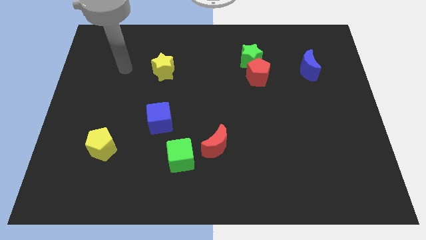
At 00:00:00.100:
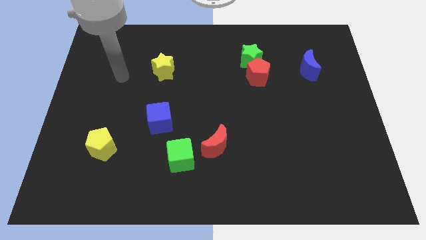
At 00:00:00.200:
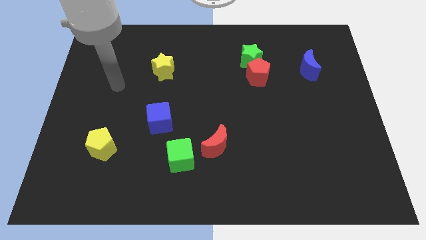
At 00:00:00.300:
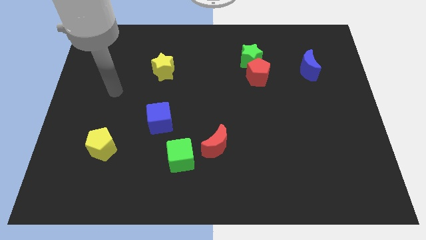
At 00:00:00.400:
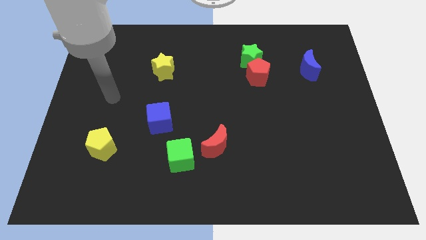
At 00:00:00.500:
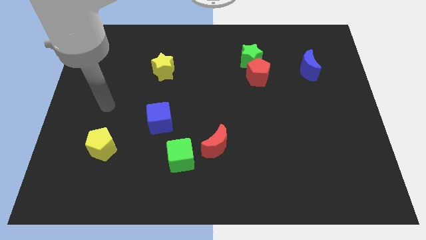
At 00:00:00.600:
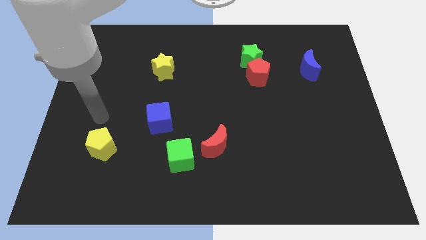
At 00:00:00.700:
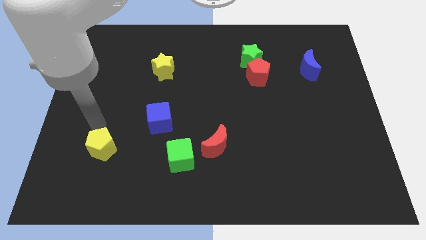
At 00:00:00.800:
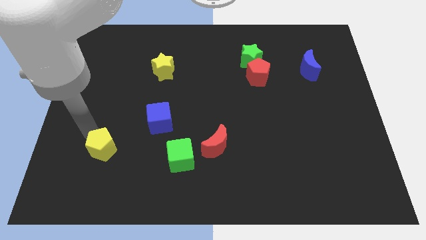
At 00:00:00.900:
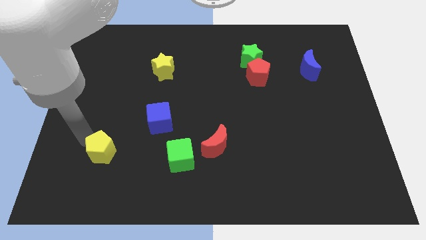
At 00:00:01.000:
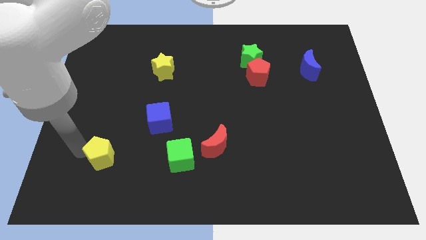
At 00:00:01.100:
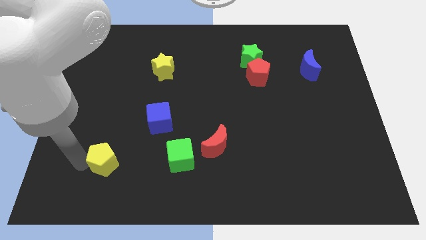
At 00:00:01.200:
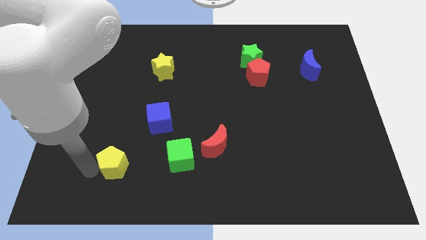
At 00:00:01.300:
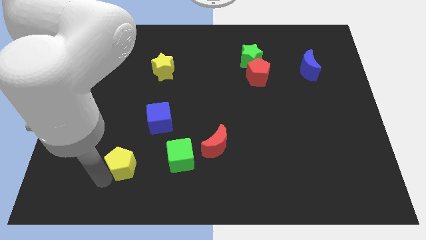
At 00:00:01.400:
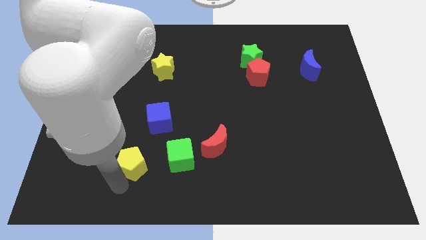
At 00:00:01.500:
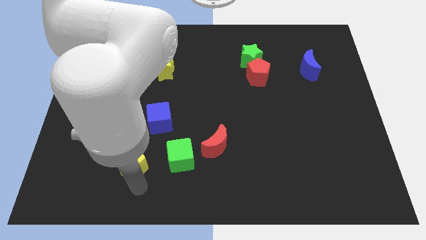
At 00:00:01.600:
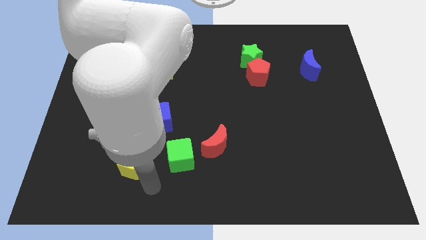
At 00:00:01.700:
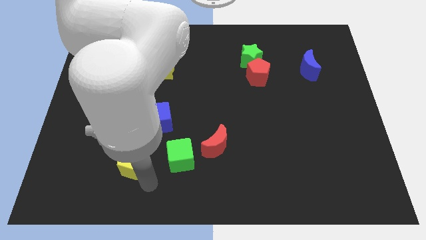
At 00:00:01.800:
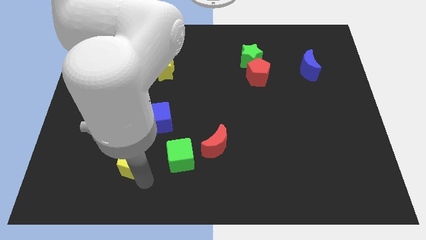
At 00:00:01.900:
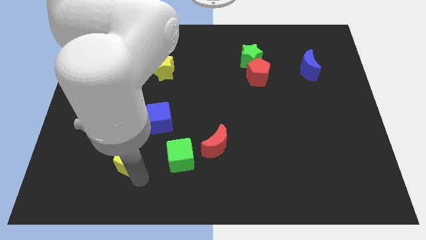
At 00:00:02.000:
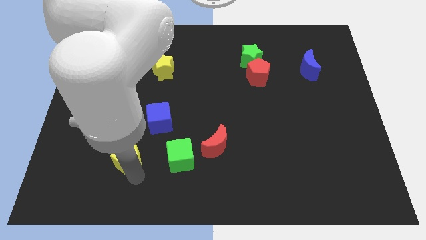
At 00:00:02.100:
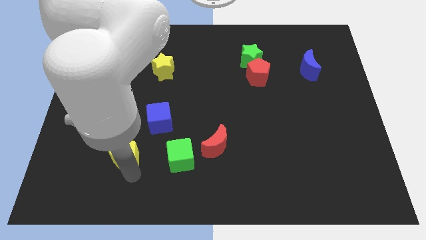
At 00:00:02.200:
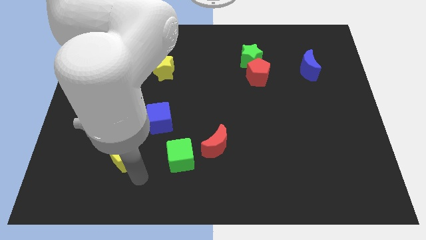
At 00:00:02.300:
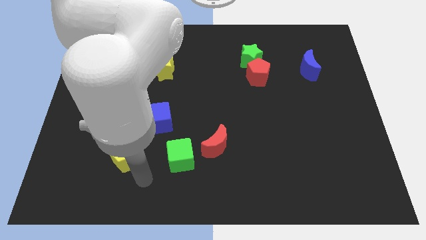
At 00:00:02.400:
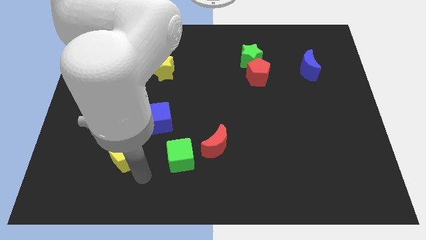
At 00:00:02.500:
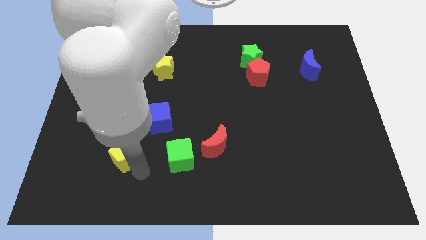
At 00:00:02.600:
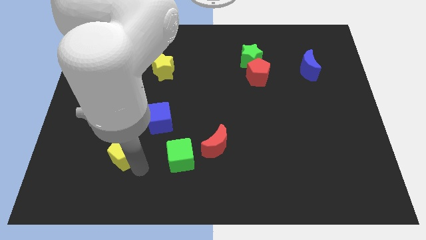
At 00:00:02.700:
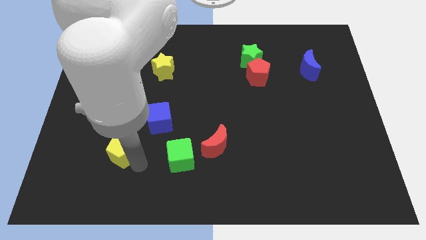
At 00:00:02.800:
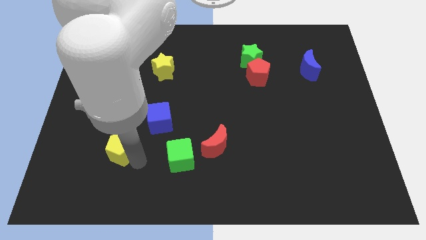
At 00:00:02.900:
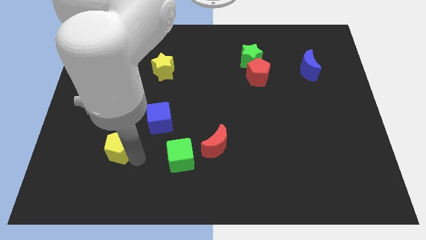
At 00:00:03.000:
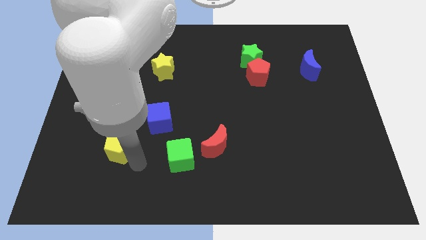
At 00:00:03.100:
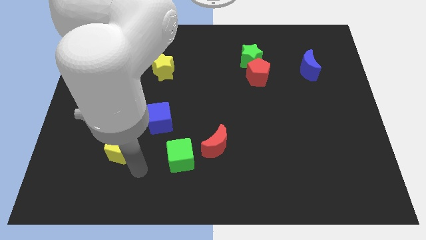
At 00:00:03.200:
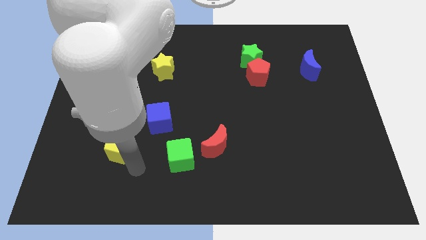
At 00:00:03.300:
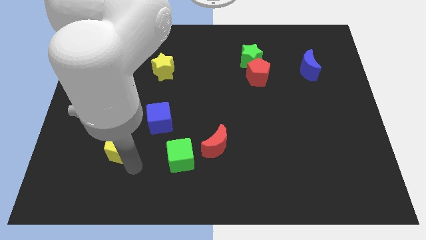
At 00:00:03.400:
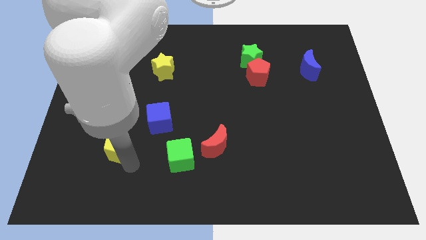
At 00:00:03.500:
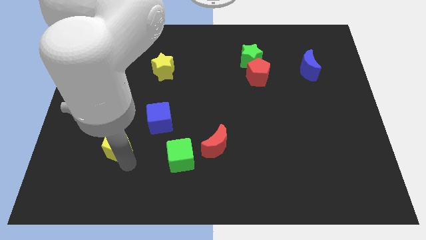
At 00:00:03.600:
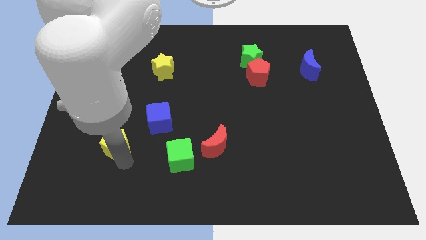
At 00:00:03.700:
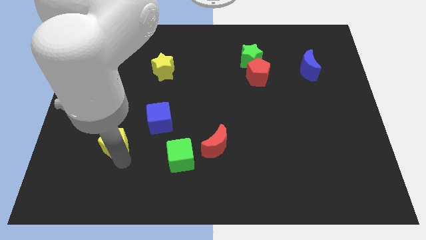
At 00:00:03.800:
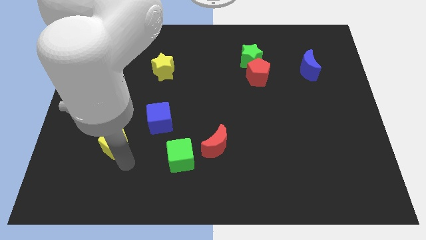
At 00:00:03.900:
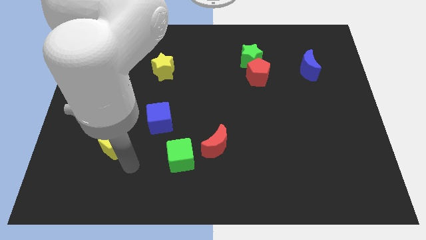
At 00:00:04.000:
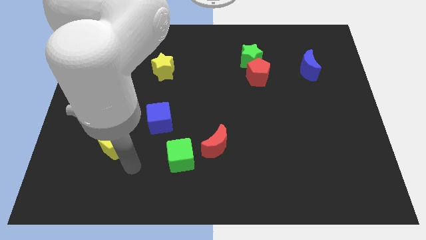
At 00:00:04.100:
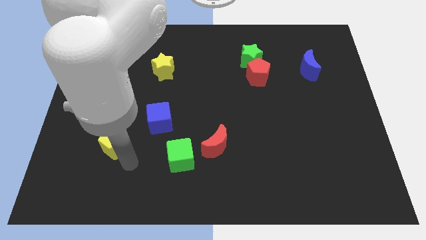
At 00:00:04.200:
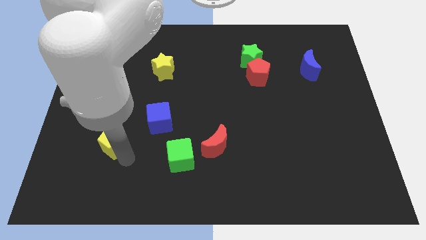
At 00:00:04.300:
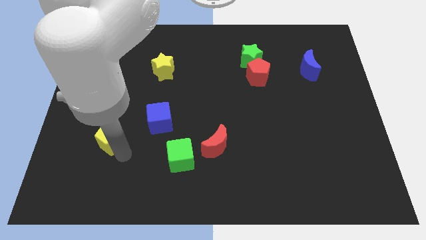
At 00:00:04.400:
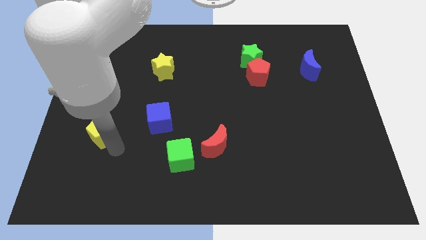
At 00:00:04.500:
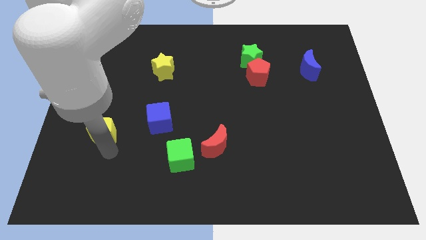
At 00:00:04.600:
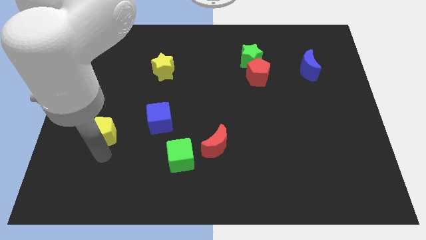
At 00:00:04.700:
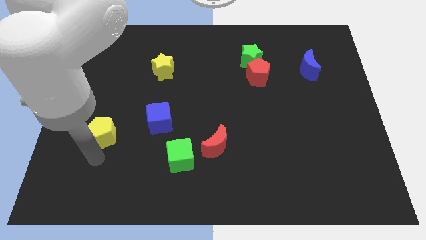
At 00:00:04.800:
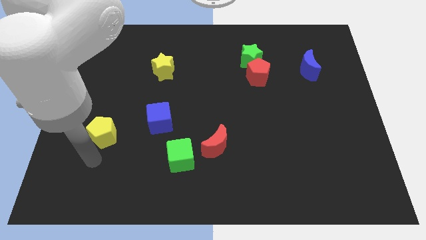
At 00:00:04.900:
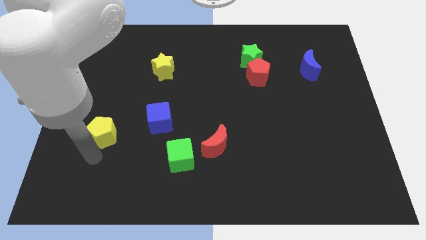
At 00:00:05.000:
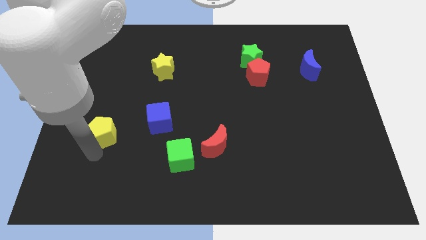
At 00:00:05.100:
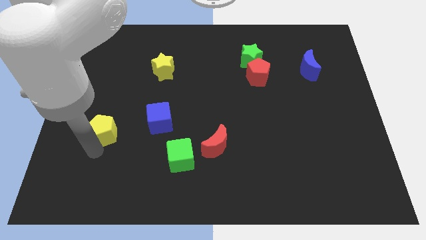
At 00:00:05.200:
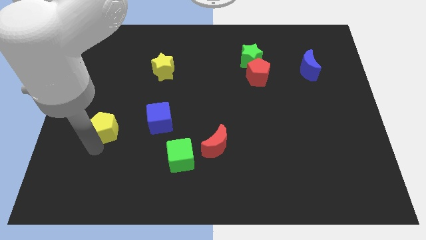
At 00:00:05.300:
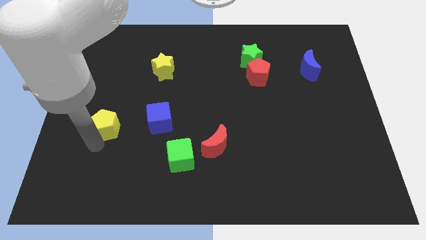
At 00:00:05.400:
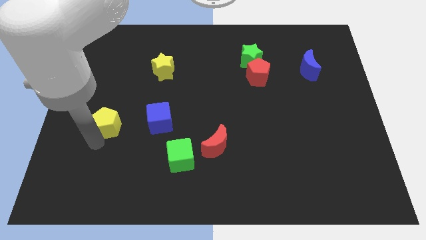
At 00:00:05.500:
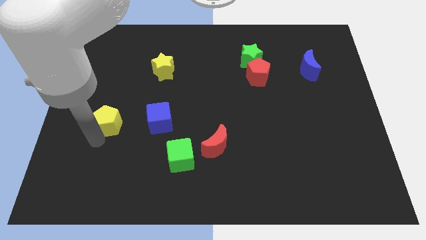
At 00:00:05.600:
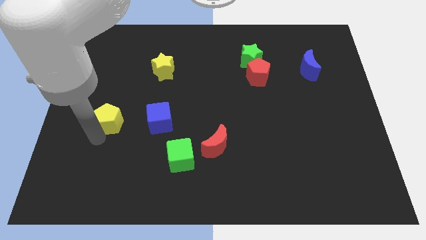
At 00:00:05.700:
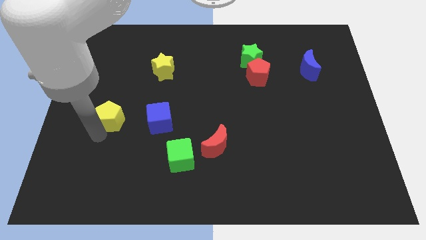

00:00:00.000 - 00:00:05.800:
slightly move the yellow pentagon upwards

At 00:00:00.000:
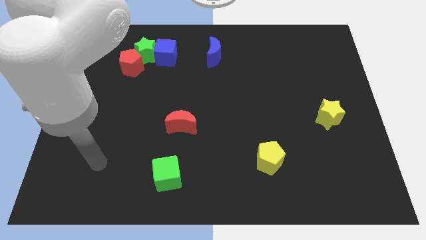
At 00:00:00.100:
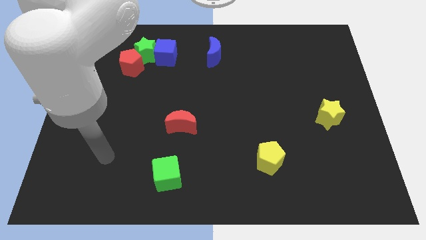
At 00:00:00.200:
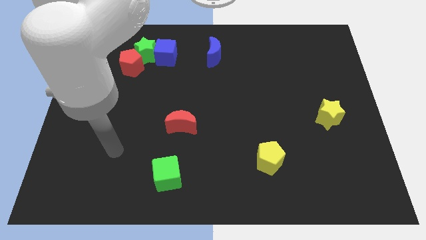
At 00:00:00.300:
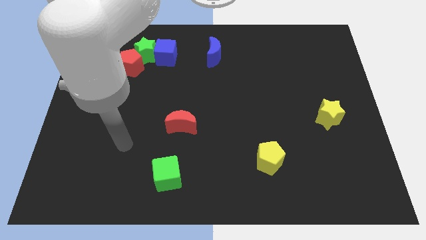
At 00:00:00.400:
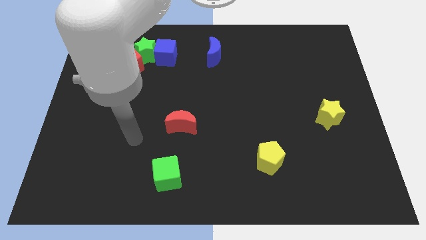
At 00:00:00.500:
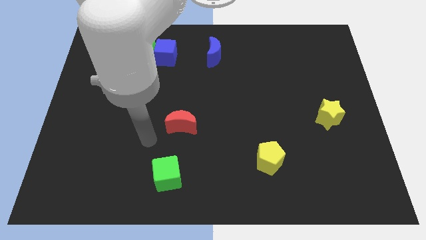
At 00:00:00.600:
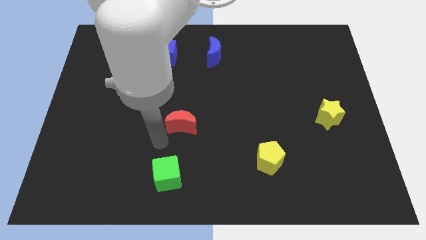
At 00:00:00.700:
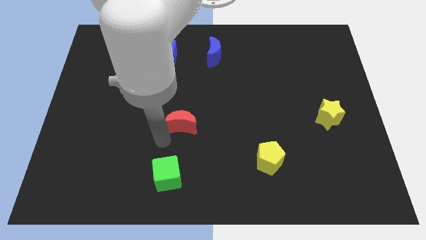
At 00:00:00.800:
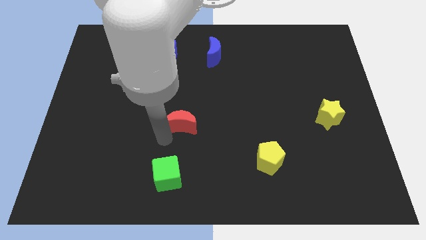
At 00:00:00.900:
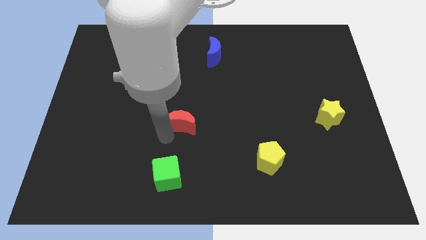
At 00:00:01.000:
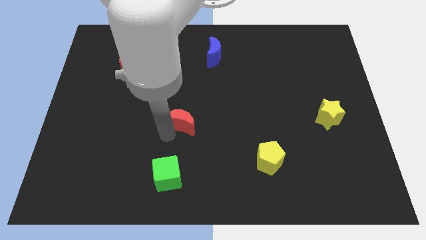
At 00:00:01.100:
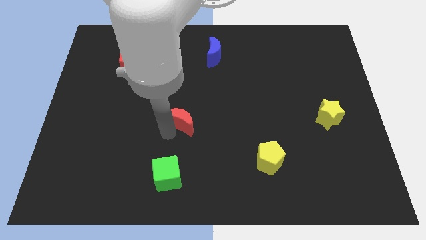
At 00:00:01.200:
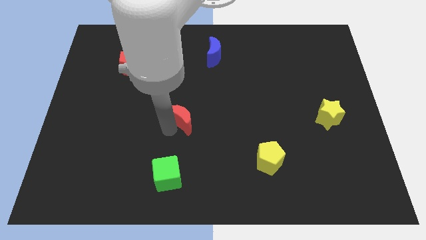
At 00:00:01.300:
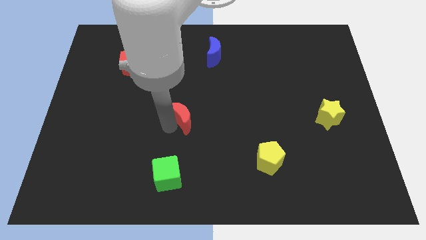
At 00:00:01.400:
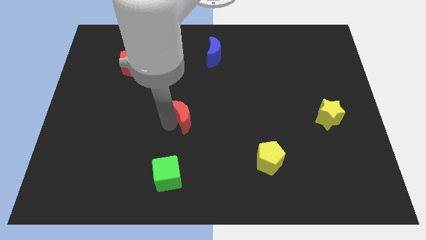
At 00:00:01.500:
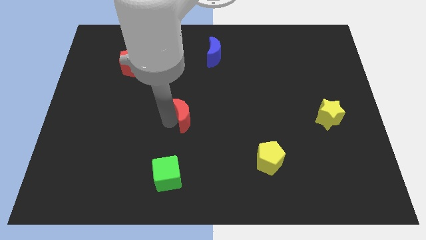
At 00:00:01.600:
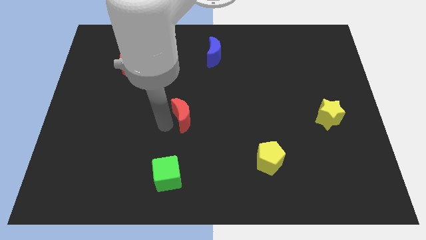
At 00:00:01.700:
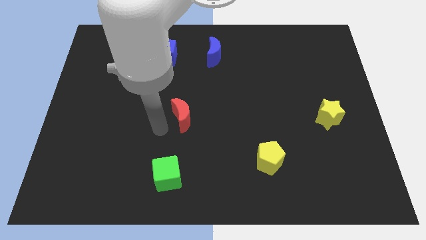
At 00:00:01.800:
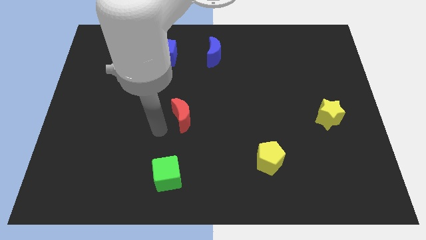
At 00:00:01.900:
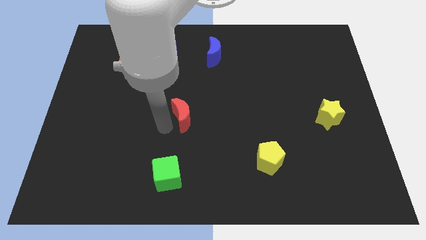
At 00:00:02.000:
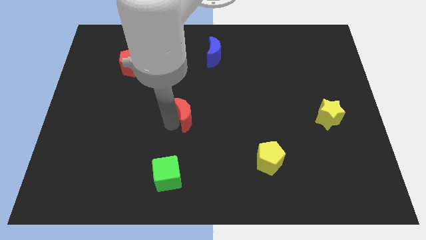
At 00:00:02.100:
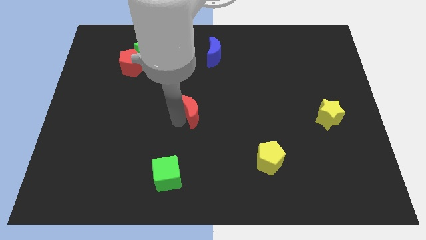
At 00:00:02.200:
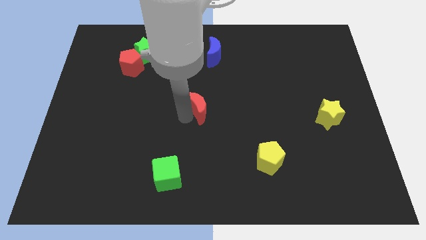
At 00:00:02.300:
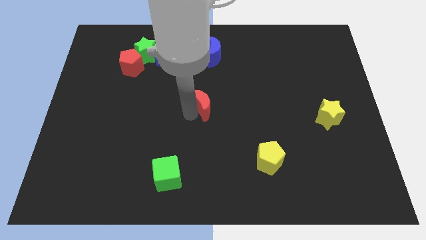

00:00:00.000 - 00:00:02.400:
push the red moon somewhat diagonally up and to the right
